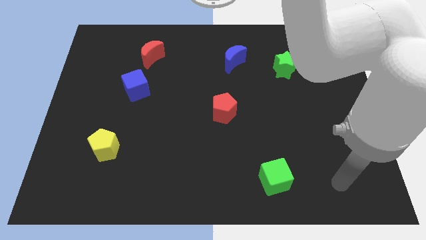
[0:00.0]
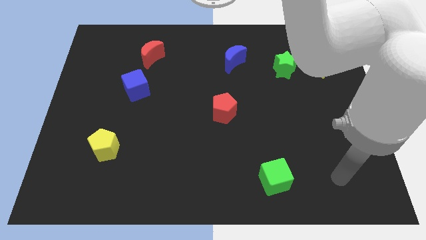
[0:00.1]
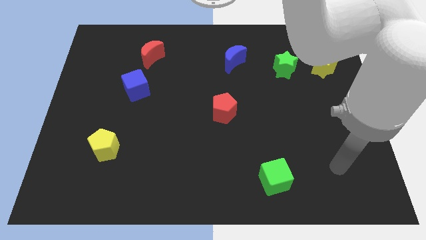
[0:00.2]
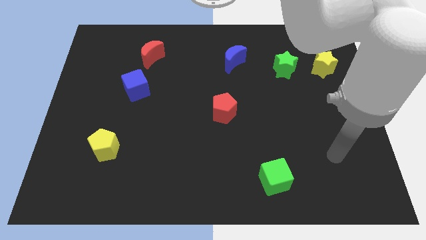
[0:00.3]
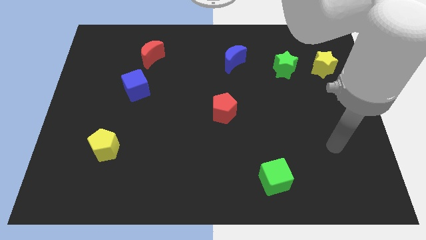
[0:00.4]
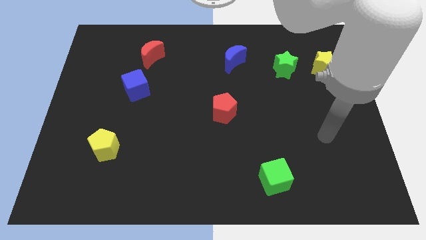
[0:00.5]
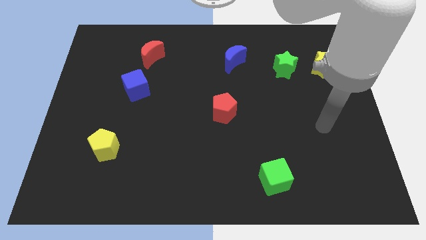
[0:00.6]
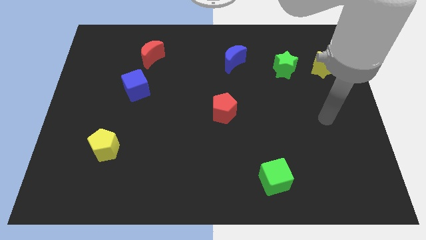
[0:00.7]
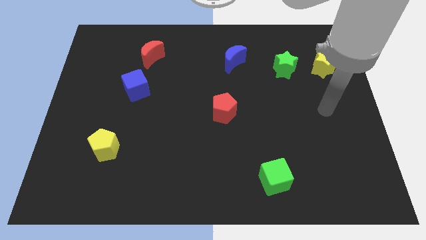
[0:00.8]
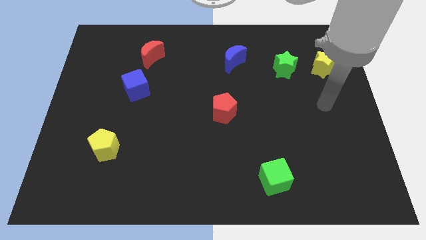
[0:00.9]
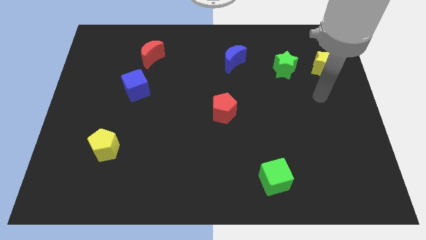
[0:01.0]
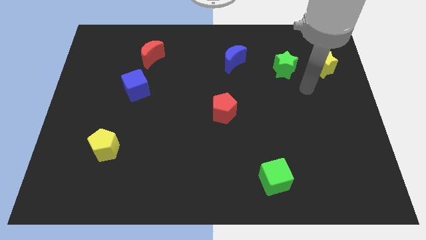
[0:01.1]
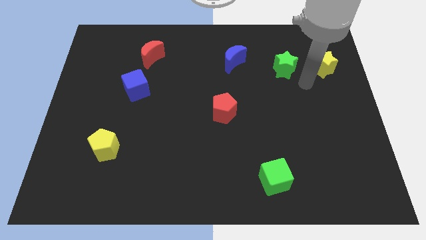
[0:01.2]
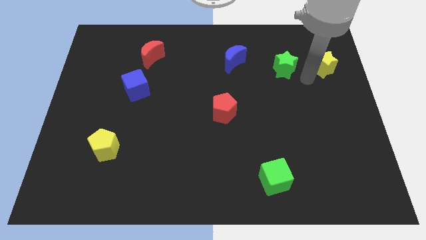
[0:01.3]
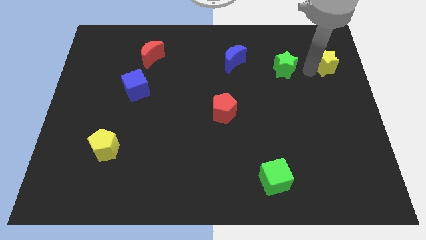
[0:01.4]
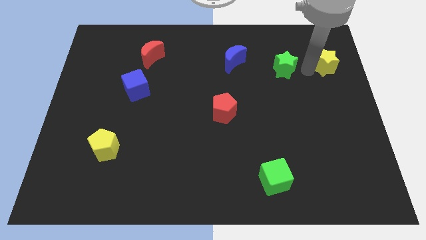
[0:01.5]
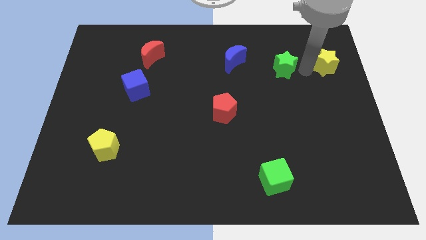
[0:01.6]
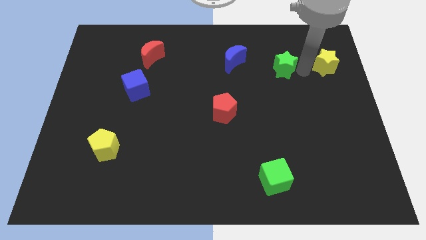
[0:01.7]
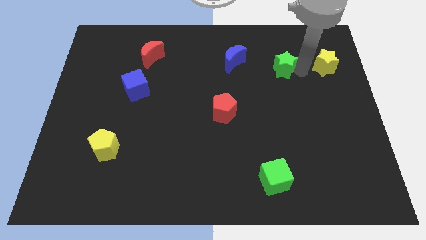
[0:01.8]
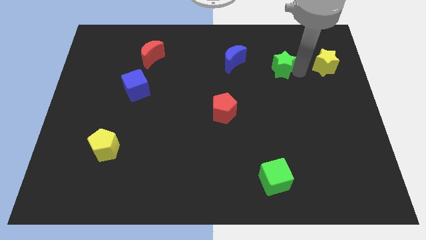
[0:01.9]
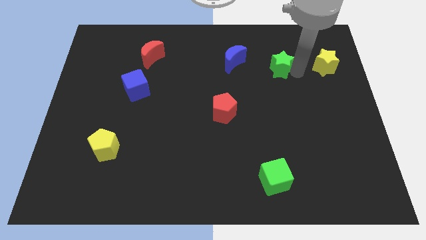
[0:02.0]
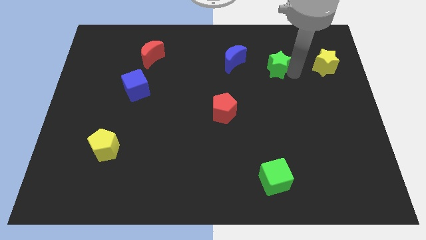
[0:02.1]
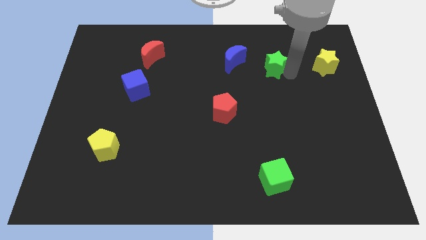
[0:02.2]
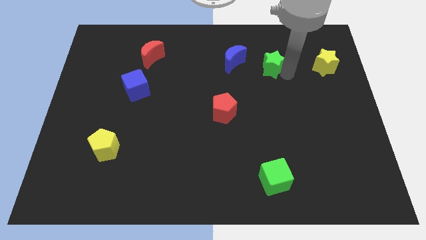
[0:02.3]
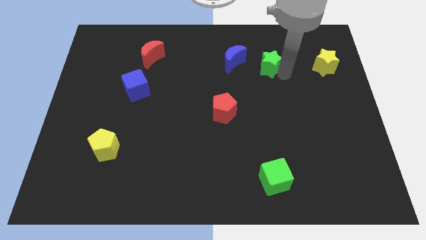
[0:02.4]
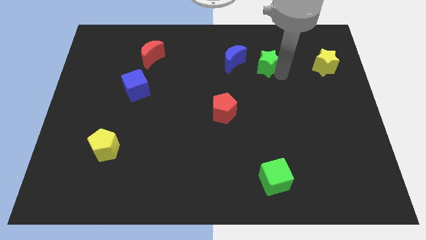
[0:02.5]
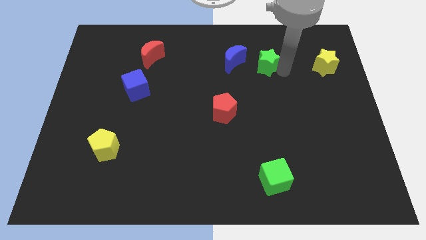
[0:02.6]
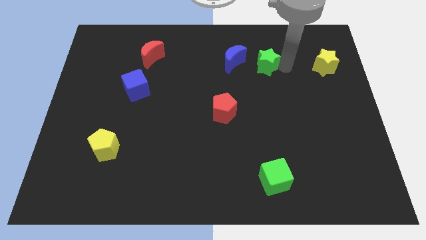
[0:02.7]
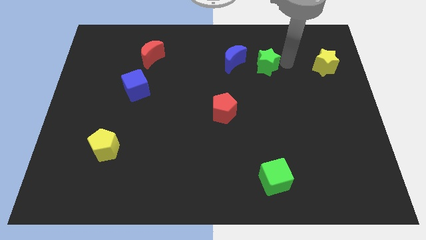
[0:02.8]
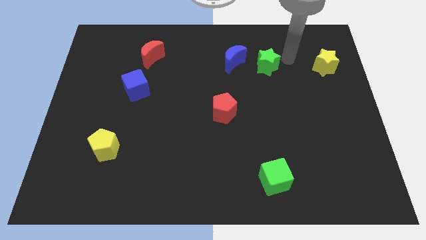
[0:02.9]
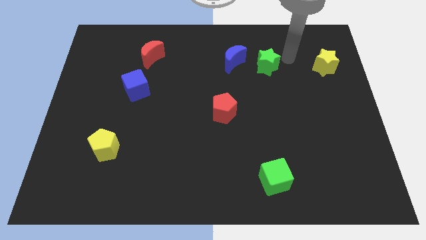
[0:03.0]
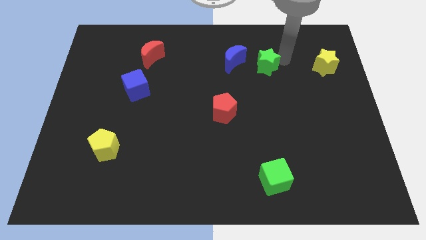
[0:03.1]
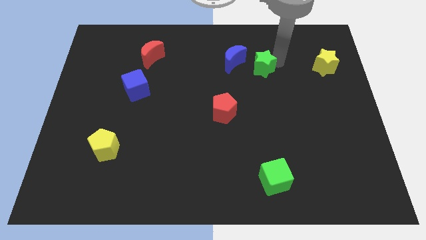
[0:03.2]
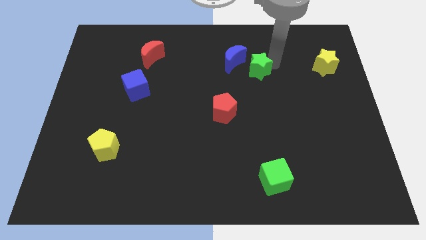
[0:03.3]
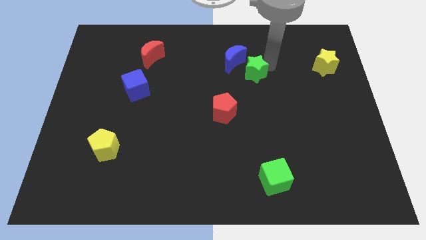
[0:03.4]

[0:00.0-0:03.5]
move the green star somewhat left

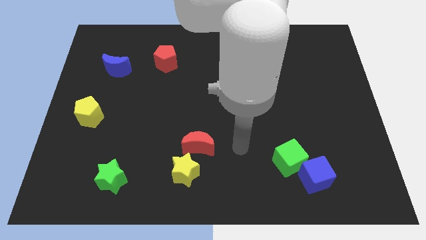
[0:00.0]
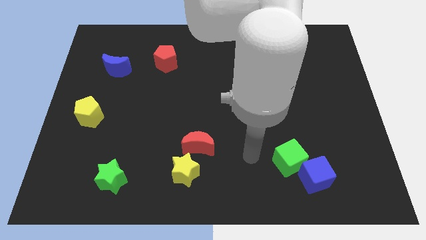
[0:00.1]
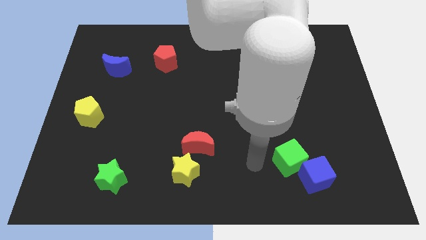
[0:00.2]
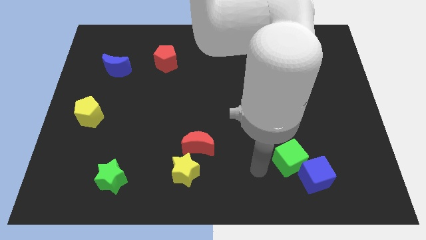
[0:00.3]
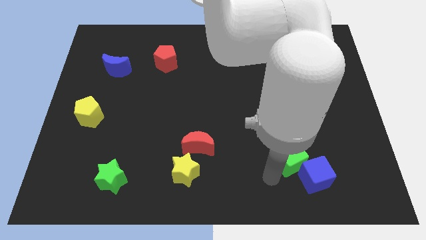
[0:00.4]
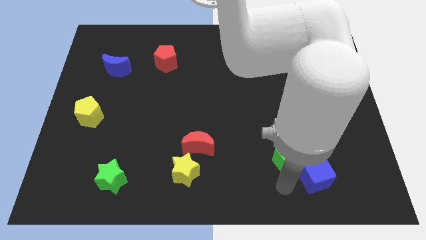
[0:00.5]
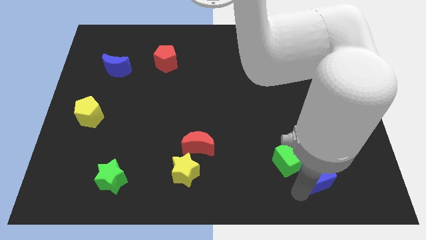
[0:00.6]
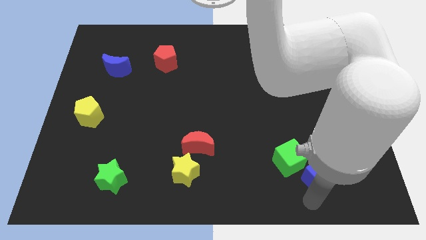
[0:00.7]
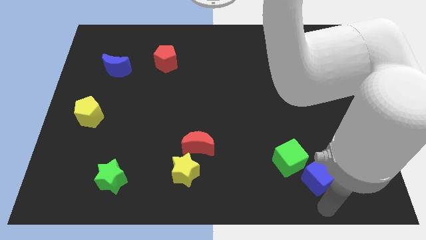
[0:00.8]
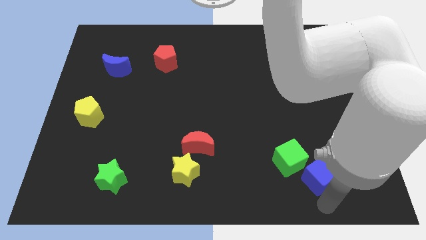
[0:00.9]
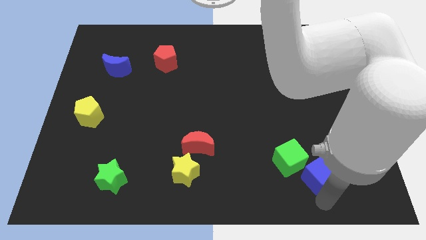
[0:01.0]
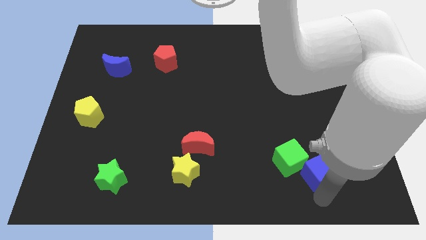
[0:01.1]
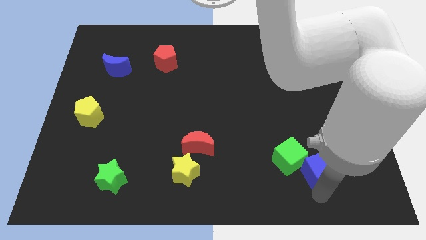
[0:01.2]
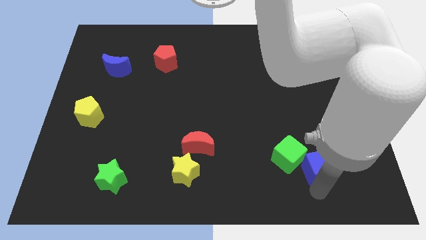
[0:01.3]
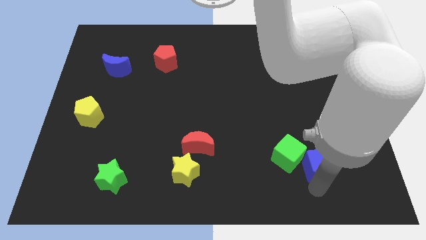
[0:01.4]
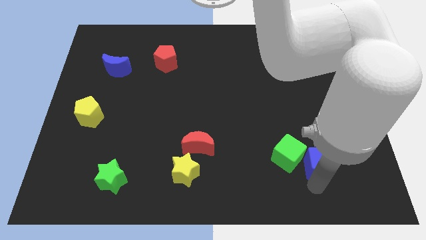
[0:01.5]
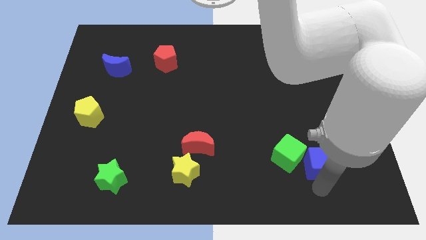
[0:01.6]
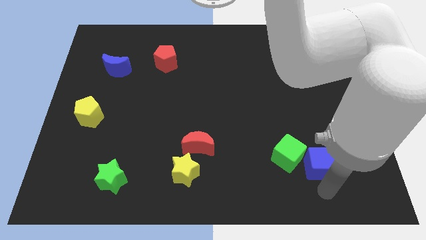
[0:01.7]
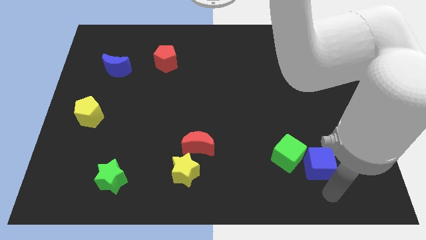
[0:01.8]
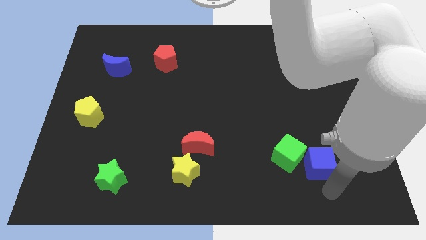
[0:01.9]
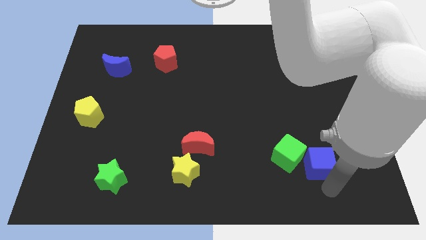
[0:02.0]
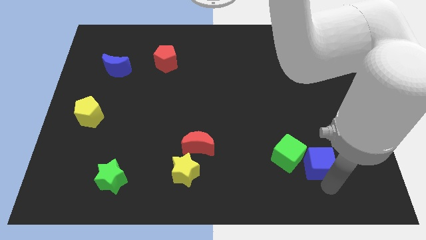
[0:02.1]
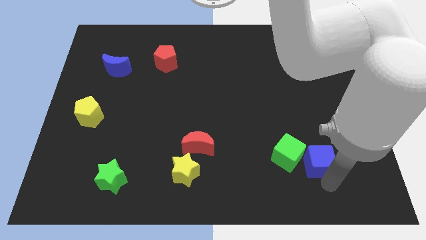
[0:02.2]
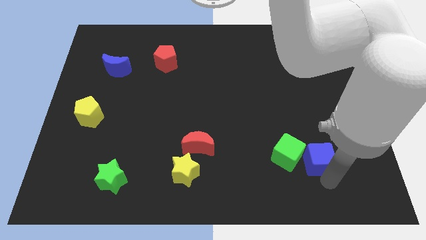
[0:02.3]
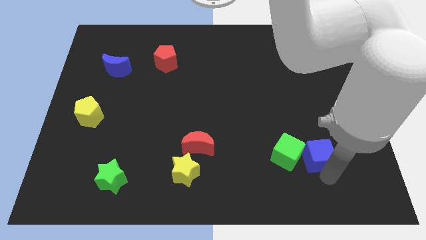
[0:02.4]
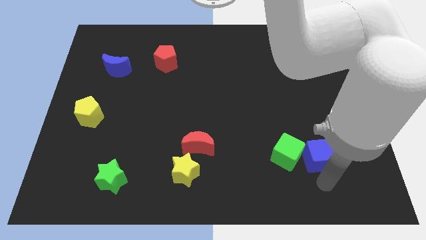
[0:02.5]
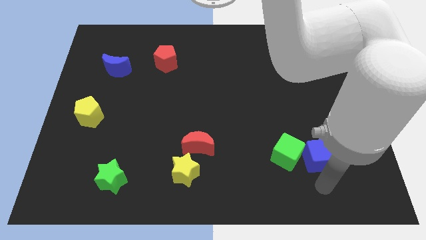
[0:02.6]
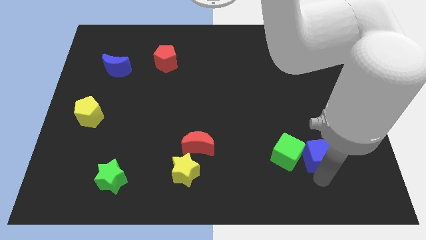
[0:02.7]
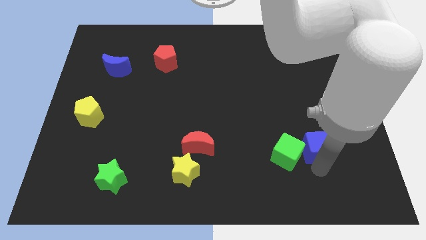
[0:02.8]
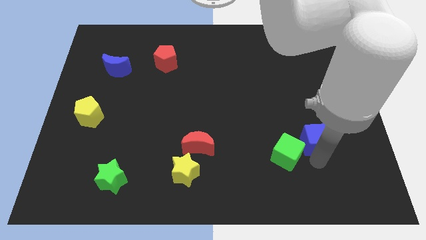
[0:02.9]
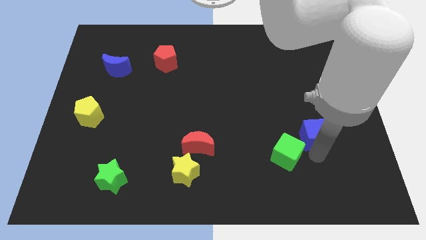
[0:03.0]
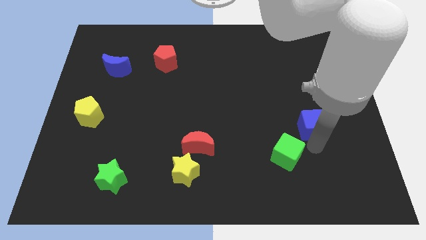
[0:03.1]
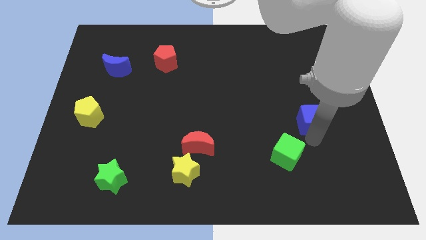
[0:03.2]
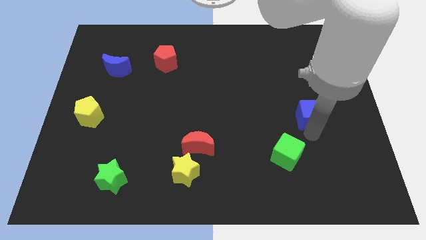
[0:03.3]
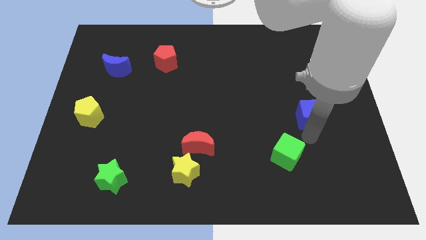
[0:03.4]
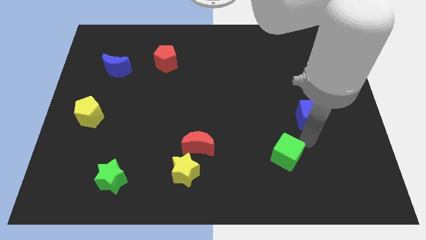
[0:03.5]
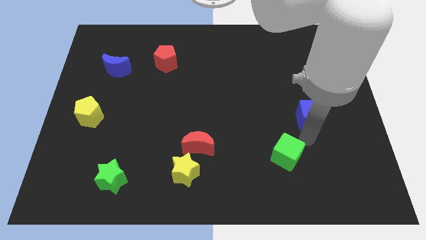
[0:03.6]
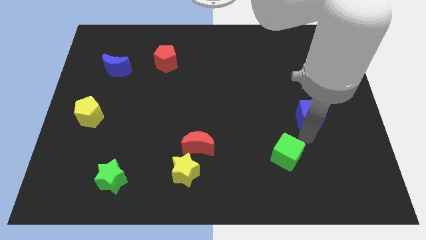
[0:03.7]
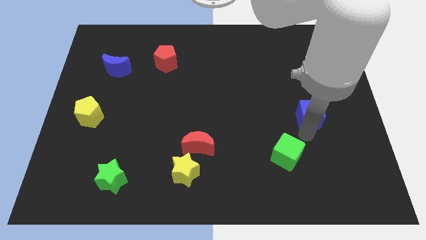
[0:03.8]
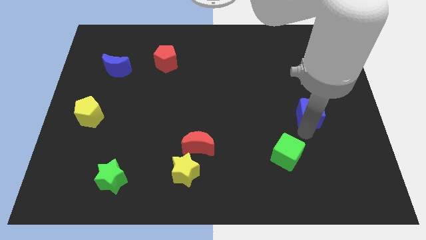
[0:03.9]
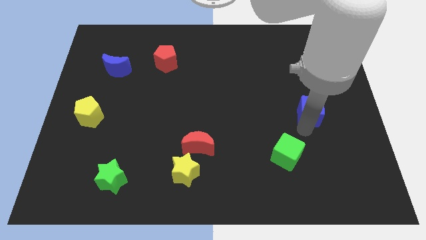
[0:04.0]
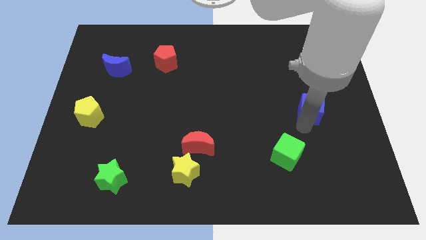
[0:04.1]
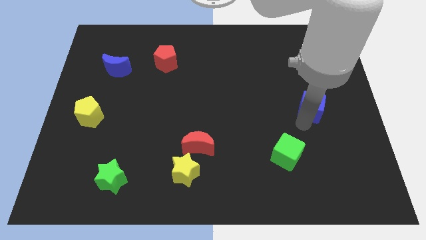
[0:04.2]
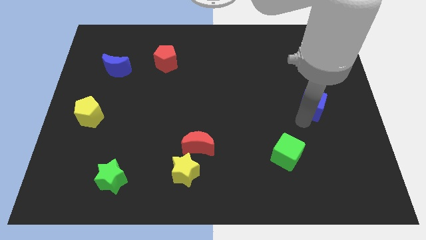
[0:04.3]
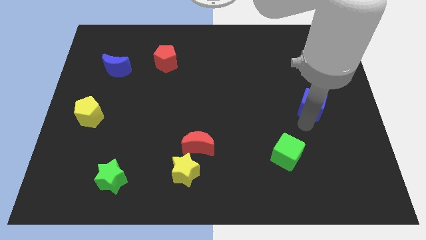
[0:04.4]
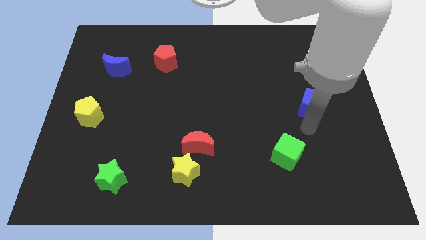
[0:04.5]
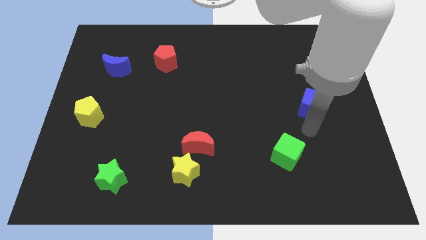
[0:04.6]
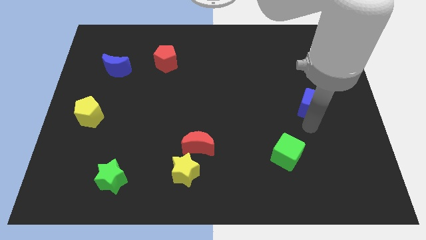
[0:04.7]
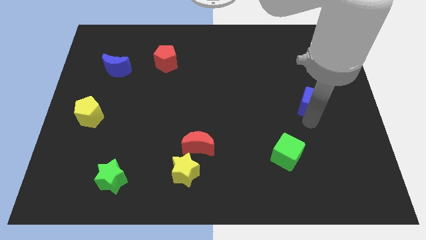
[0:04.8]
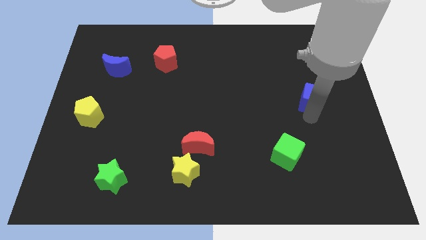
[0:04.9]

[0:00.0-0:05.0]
push the blue cube upwards
